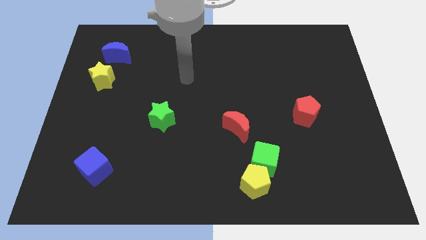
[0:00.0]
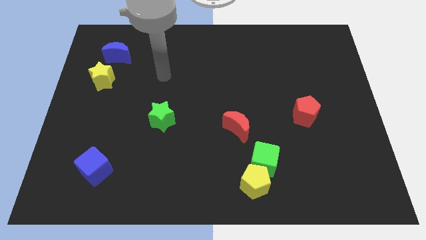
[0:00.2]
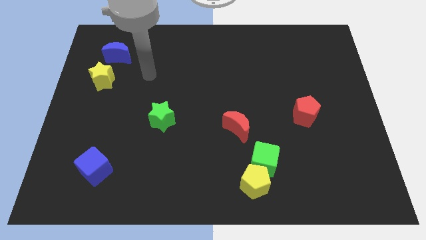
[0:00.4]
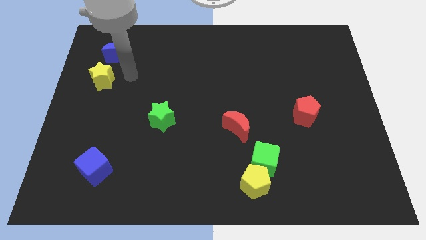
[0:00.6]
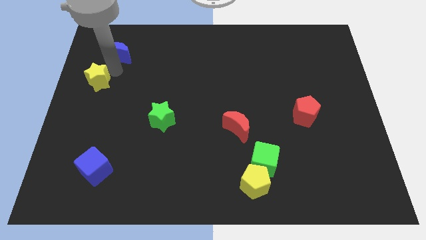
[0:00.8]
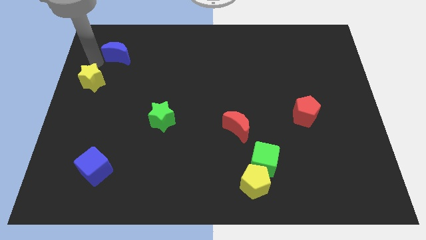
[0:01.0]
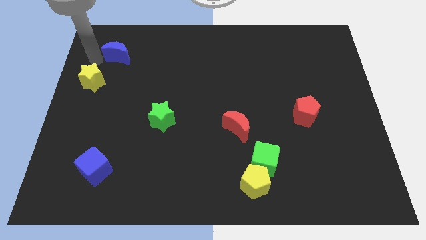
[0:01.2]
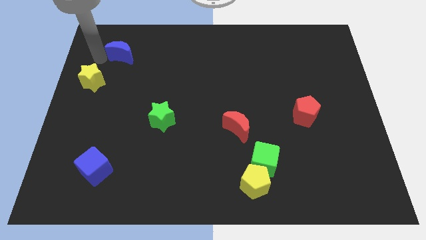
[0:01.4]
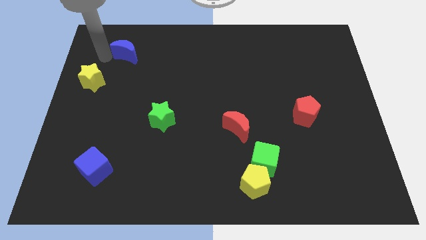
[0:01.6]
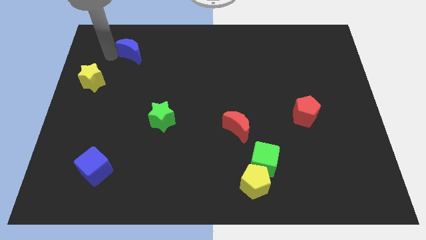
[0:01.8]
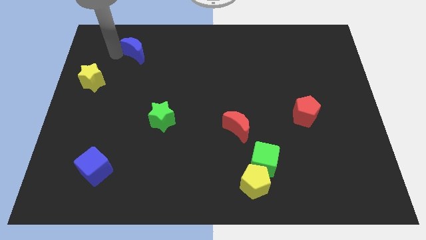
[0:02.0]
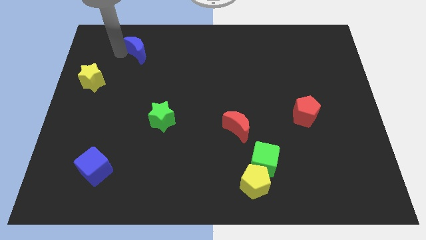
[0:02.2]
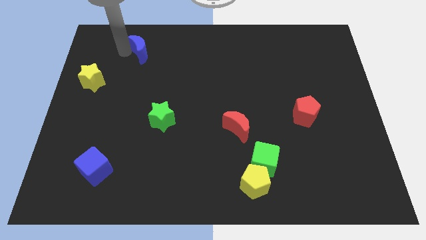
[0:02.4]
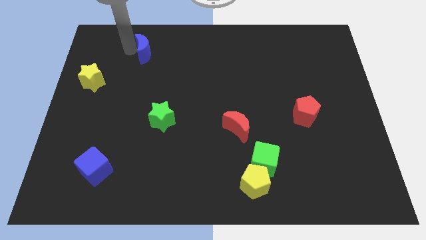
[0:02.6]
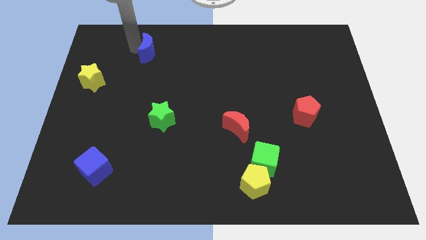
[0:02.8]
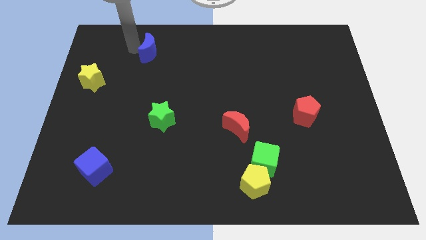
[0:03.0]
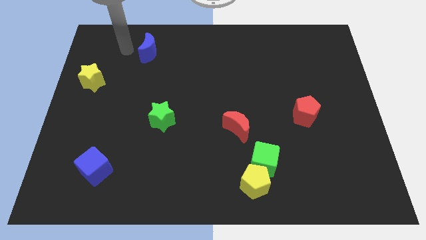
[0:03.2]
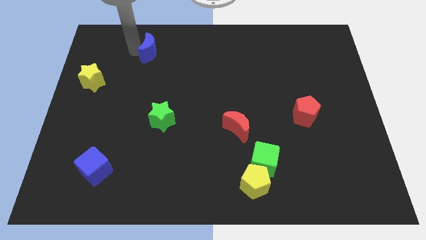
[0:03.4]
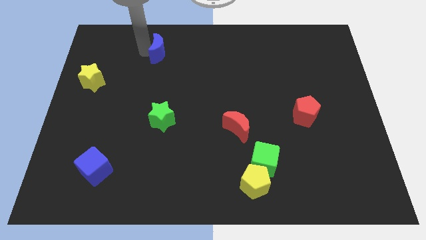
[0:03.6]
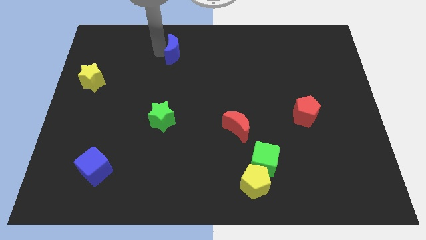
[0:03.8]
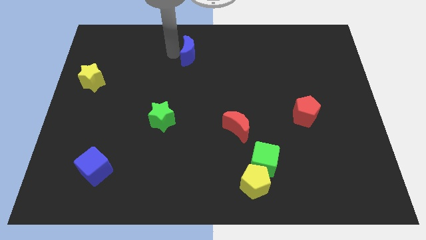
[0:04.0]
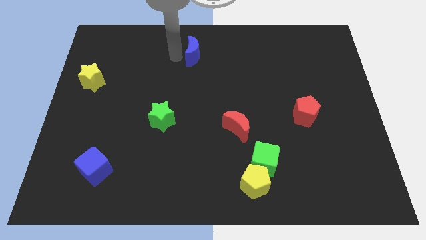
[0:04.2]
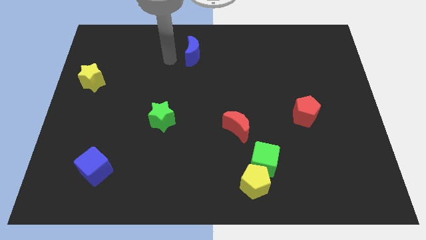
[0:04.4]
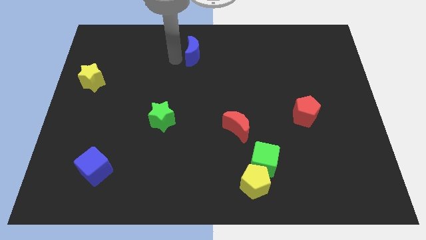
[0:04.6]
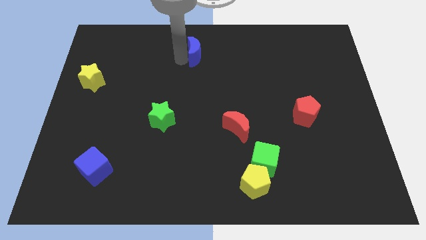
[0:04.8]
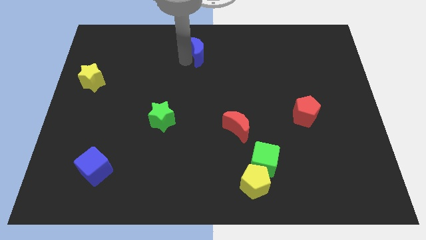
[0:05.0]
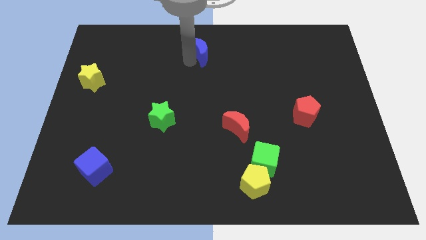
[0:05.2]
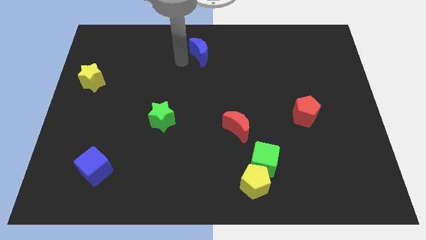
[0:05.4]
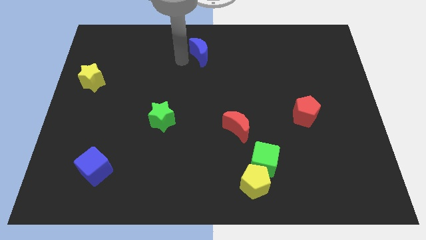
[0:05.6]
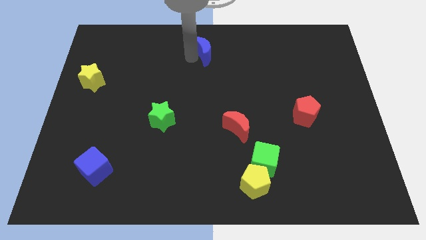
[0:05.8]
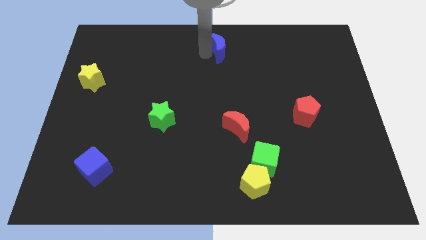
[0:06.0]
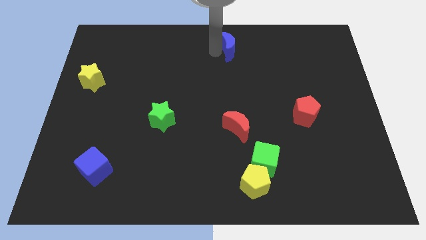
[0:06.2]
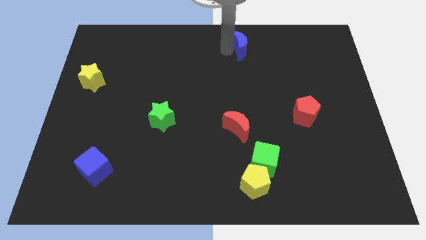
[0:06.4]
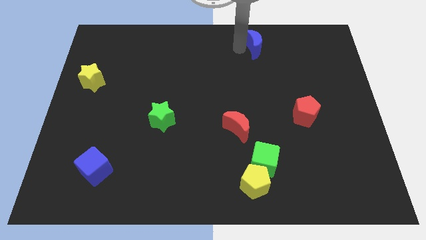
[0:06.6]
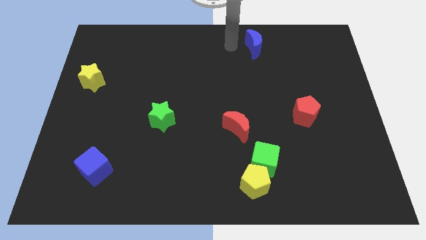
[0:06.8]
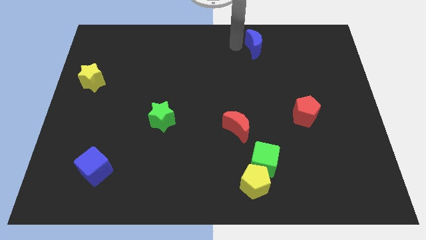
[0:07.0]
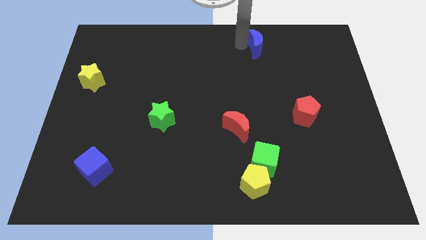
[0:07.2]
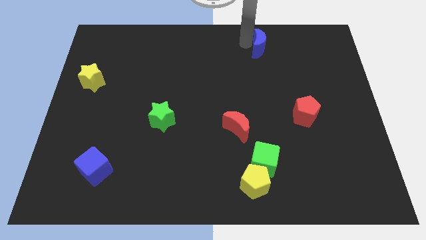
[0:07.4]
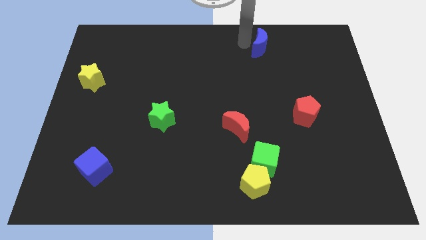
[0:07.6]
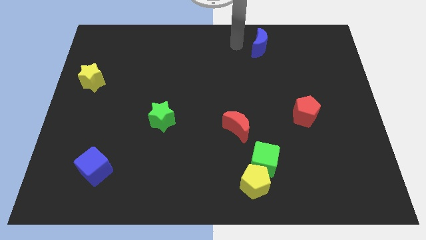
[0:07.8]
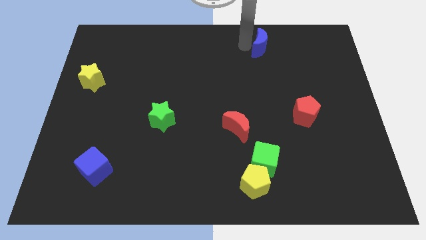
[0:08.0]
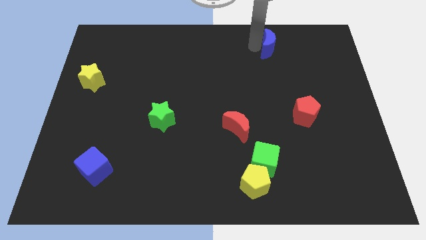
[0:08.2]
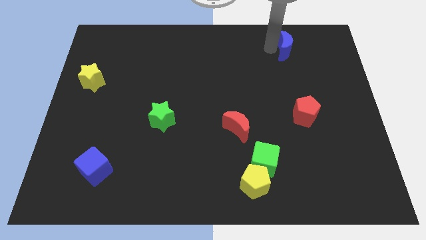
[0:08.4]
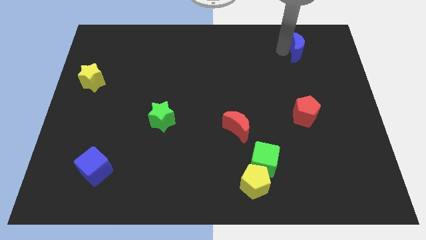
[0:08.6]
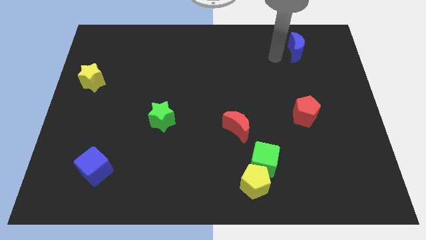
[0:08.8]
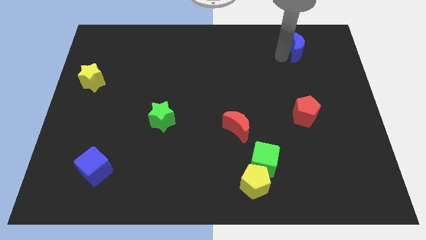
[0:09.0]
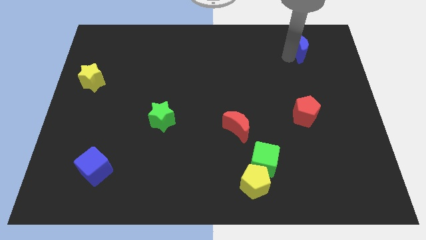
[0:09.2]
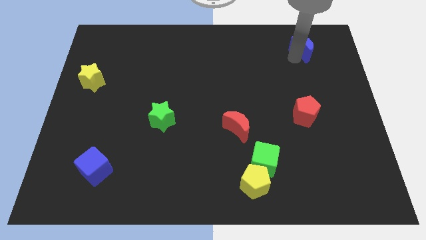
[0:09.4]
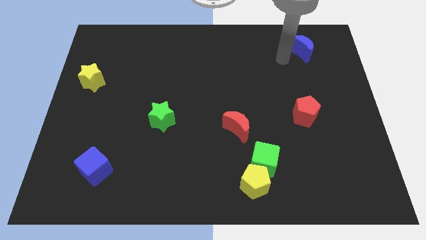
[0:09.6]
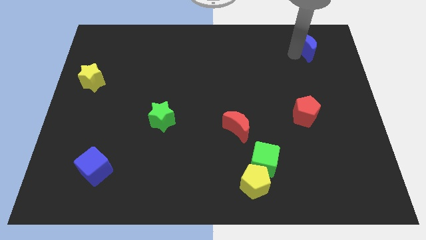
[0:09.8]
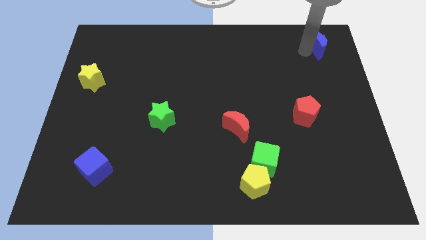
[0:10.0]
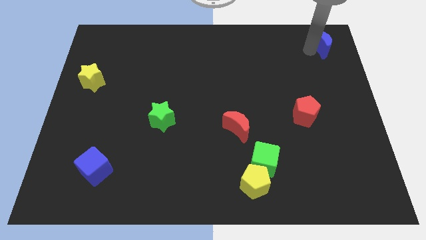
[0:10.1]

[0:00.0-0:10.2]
put the blue moon to the upper right corner

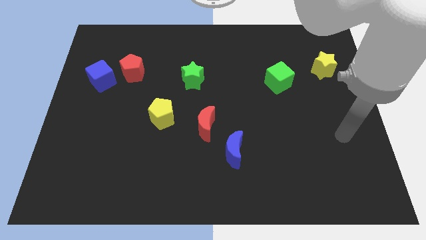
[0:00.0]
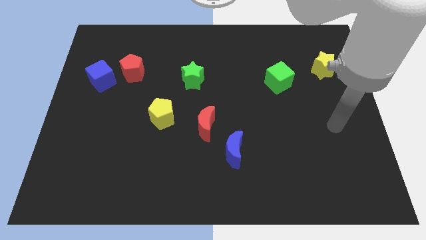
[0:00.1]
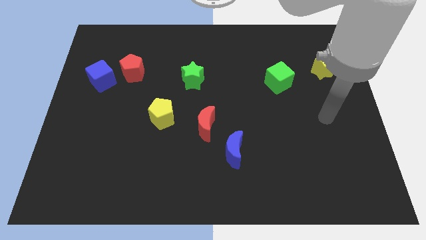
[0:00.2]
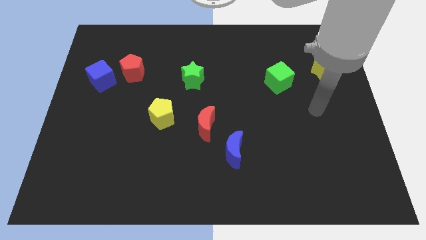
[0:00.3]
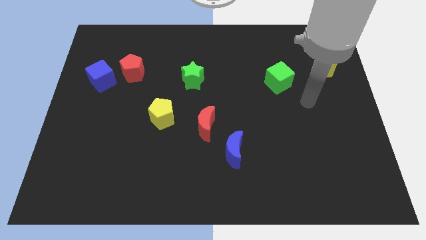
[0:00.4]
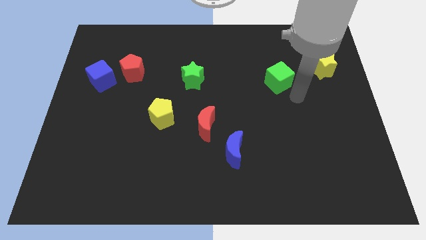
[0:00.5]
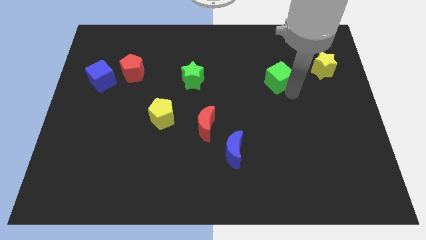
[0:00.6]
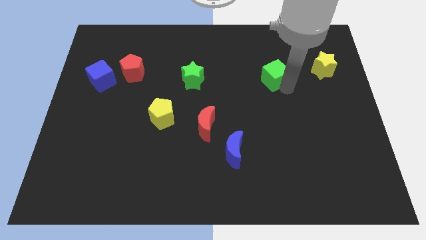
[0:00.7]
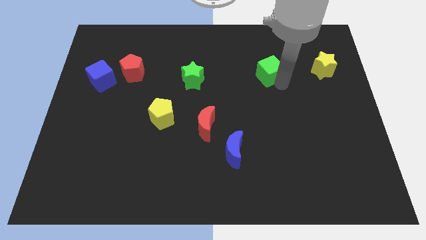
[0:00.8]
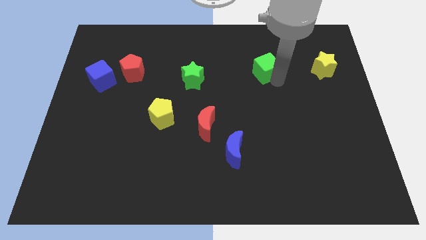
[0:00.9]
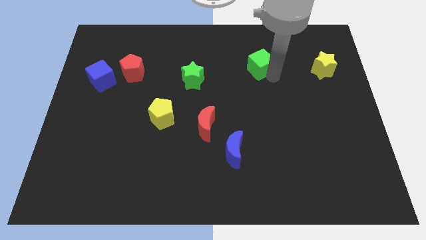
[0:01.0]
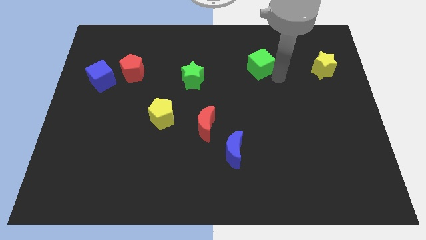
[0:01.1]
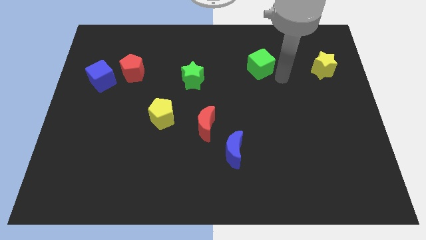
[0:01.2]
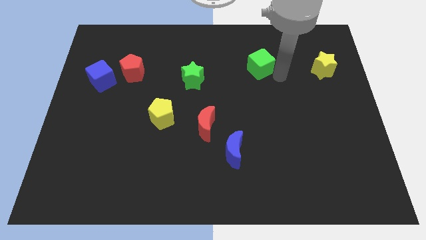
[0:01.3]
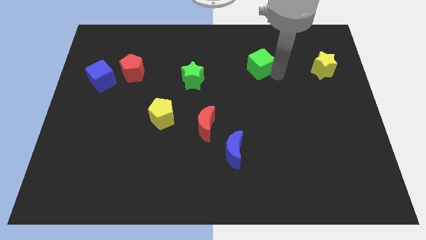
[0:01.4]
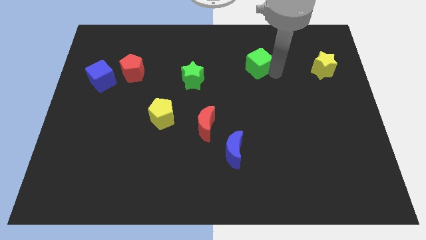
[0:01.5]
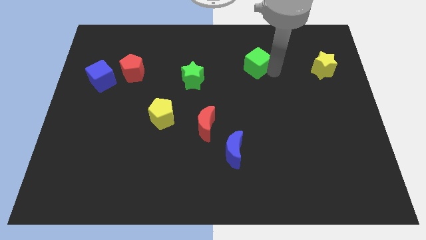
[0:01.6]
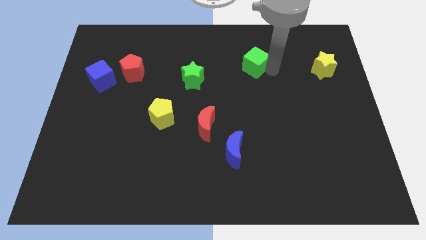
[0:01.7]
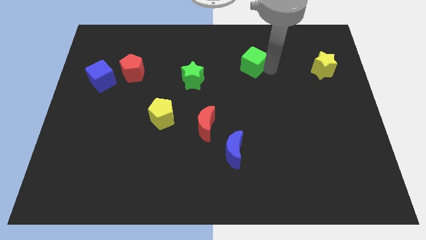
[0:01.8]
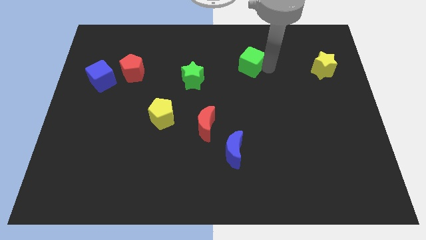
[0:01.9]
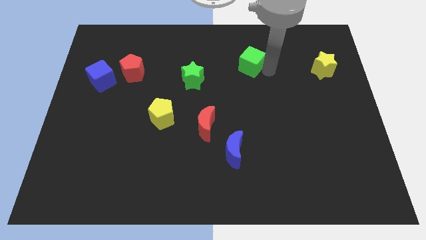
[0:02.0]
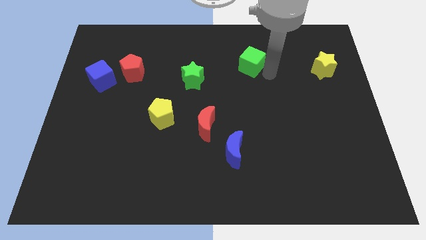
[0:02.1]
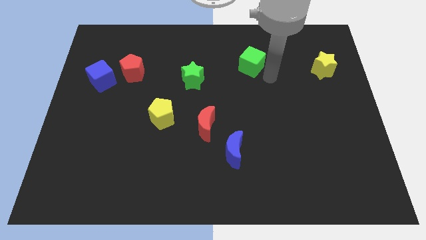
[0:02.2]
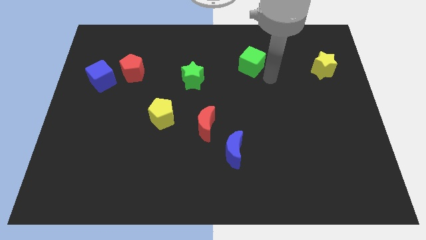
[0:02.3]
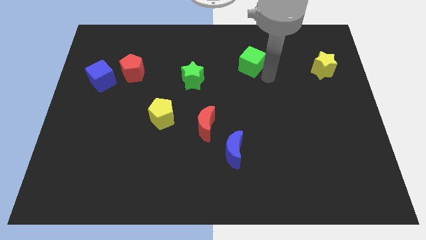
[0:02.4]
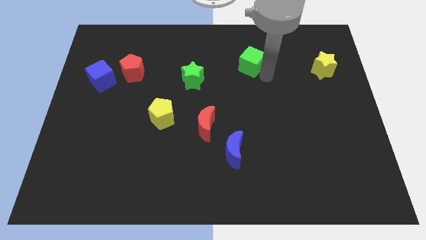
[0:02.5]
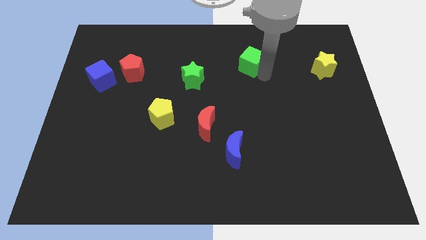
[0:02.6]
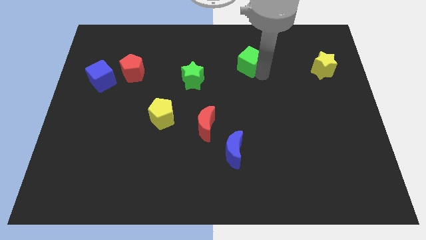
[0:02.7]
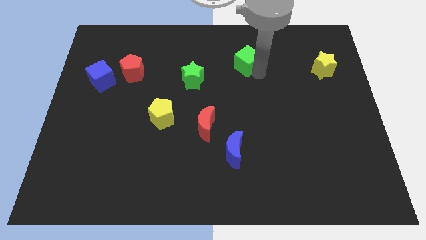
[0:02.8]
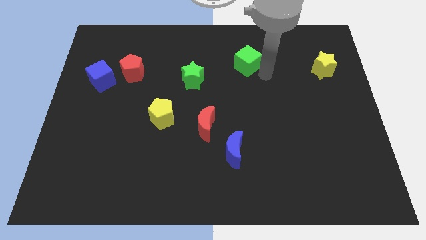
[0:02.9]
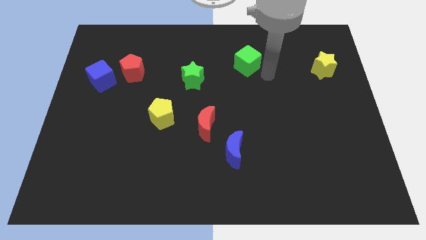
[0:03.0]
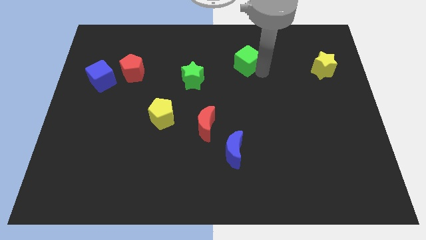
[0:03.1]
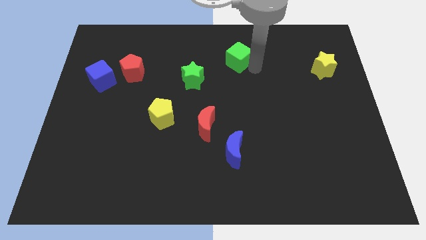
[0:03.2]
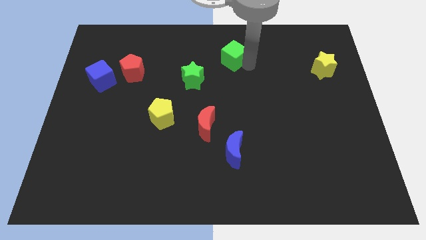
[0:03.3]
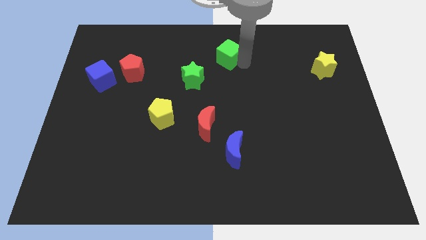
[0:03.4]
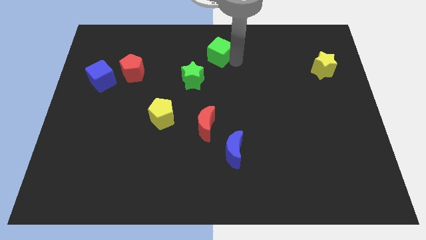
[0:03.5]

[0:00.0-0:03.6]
put the green cube to the top side
